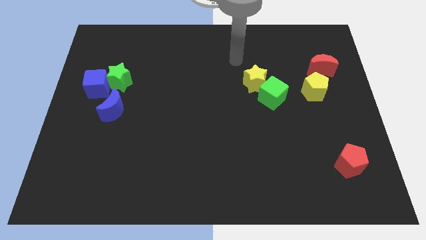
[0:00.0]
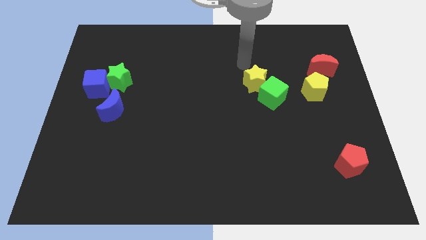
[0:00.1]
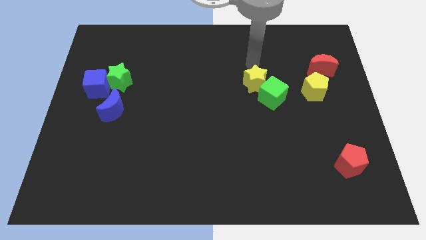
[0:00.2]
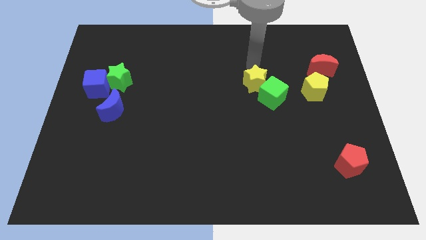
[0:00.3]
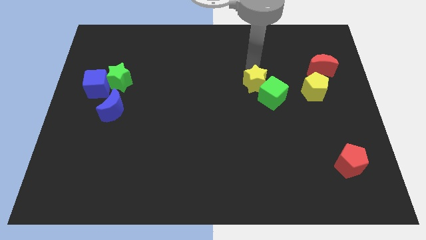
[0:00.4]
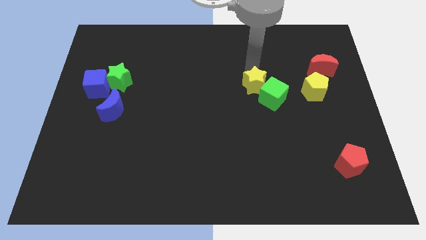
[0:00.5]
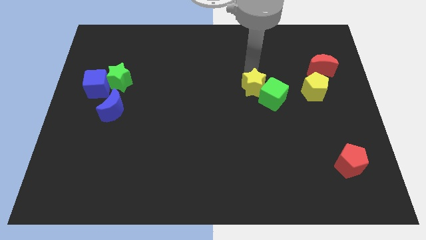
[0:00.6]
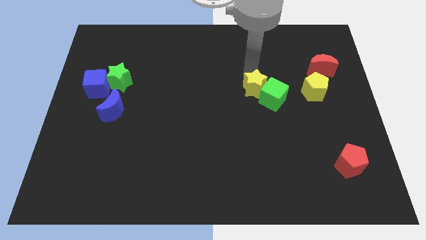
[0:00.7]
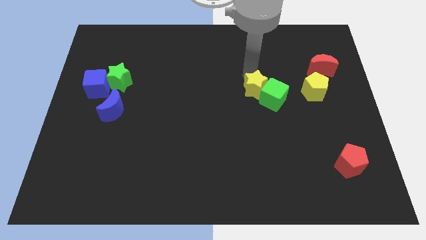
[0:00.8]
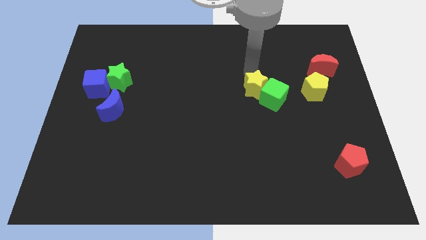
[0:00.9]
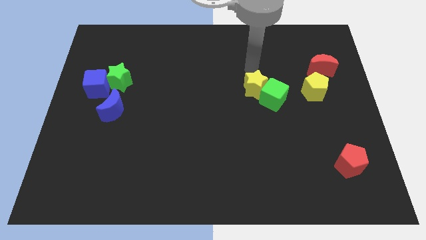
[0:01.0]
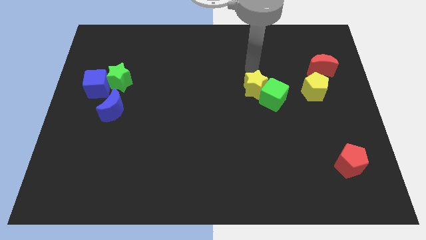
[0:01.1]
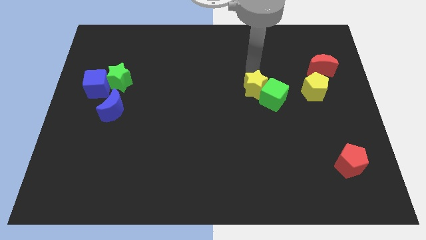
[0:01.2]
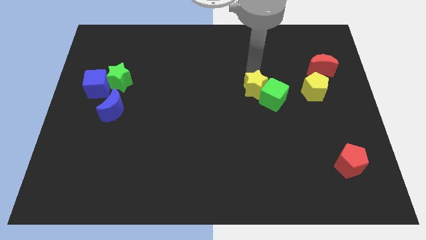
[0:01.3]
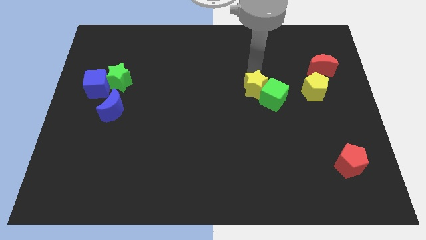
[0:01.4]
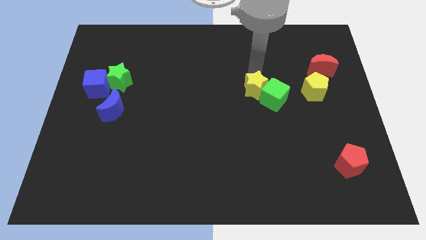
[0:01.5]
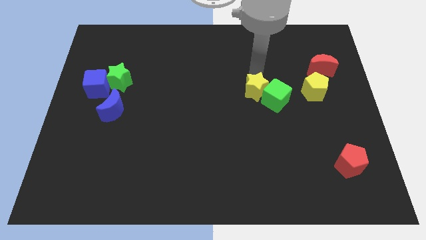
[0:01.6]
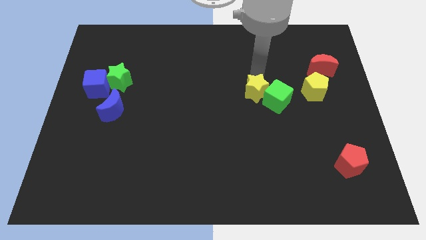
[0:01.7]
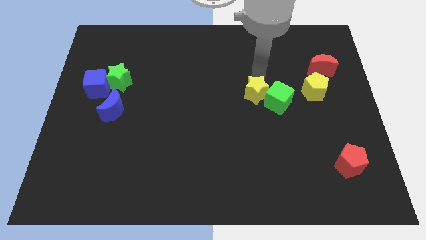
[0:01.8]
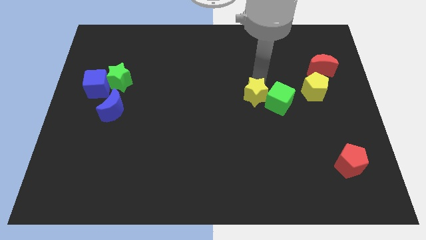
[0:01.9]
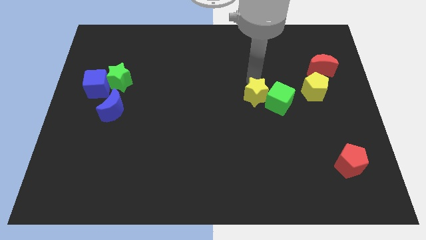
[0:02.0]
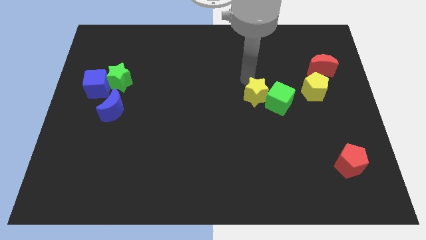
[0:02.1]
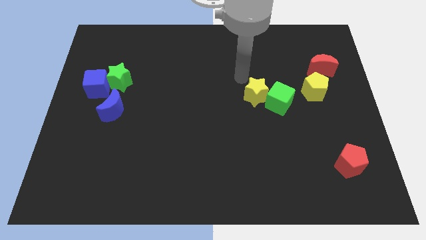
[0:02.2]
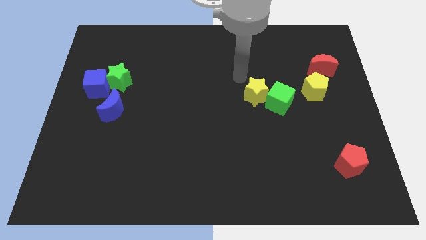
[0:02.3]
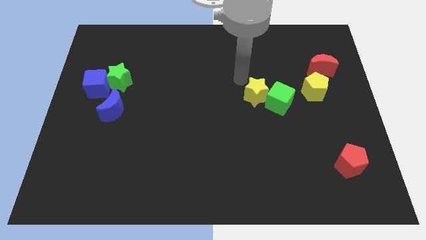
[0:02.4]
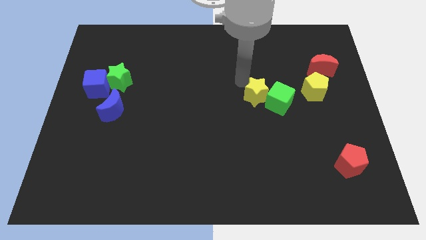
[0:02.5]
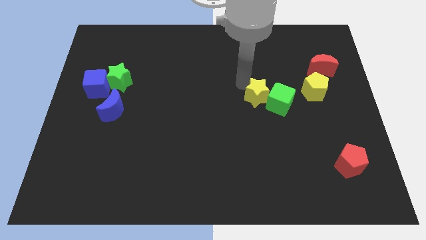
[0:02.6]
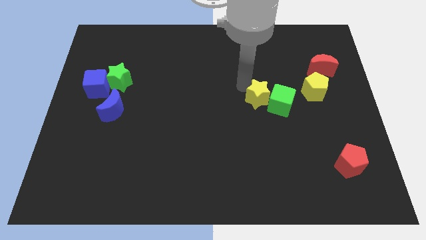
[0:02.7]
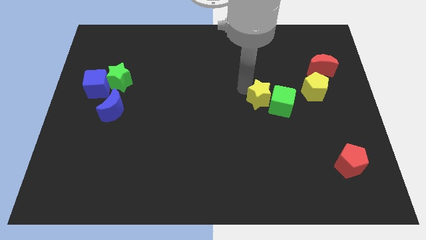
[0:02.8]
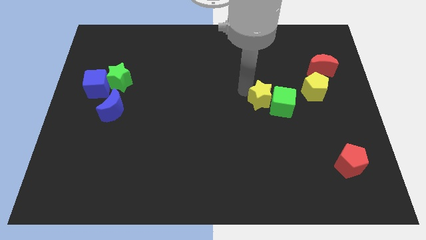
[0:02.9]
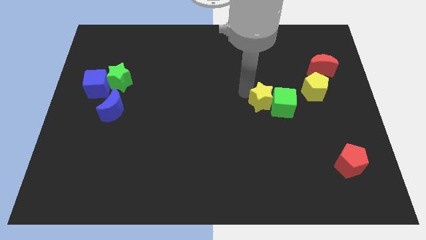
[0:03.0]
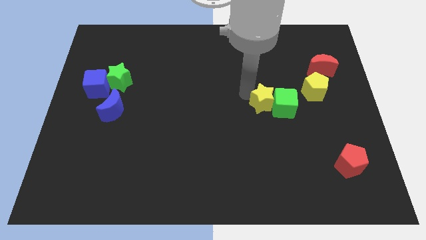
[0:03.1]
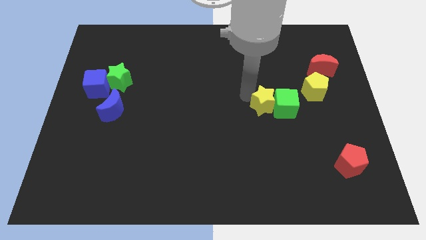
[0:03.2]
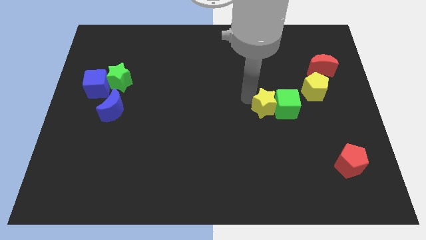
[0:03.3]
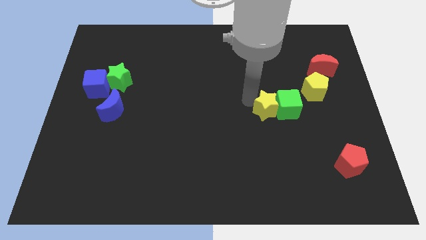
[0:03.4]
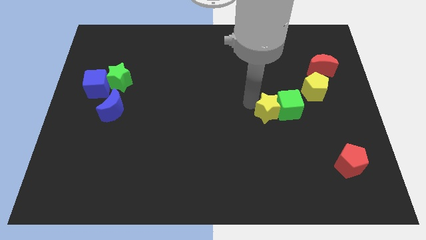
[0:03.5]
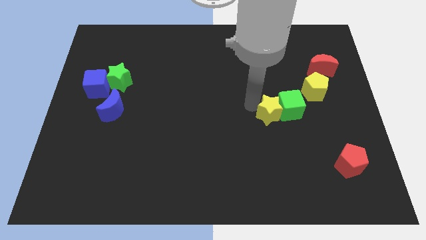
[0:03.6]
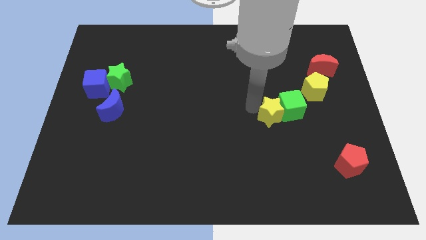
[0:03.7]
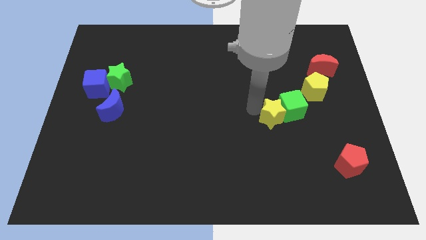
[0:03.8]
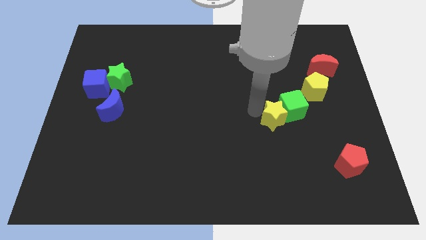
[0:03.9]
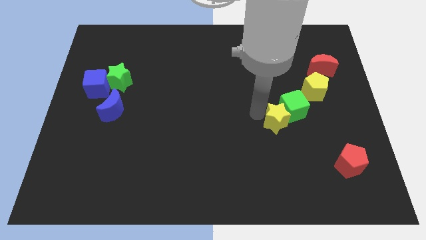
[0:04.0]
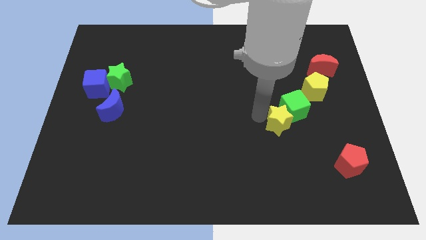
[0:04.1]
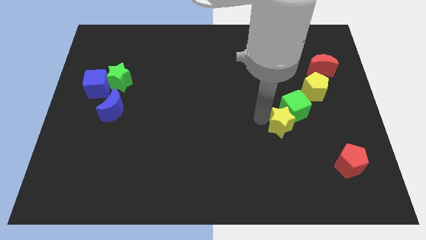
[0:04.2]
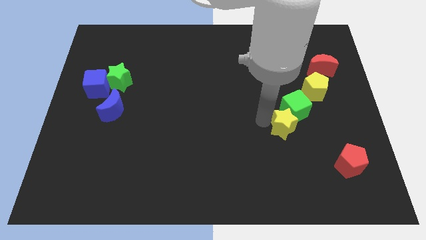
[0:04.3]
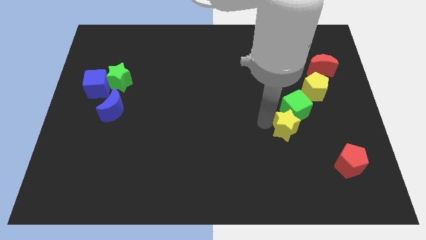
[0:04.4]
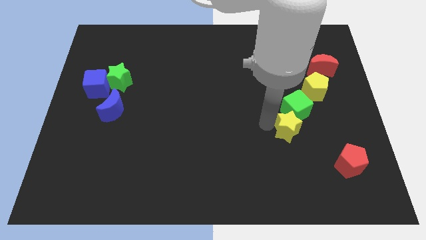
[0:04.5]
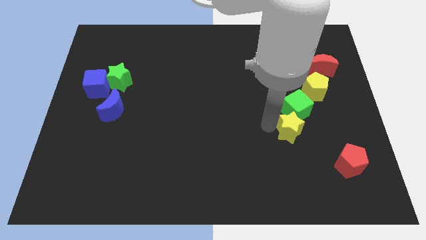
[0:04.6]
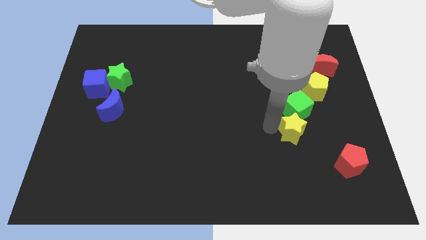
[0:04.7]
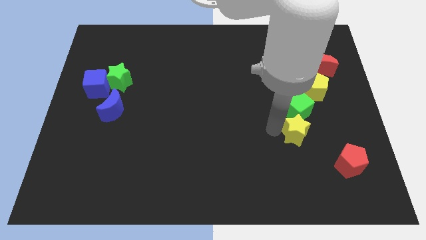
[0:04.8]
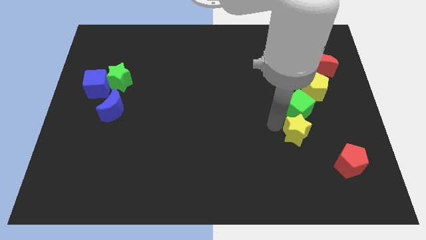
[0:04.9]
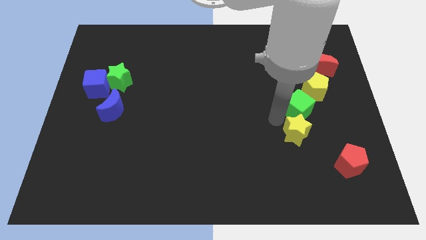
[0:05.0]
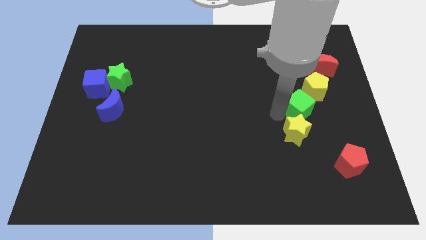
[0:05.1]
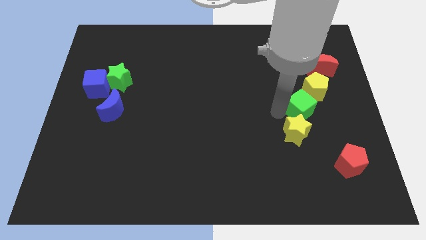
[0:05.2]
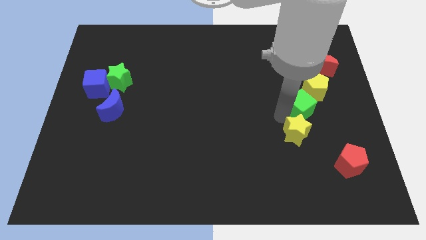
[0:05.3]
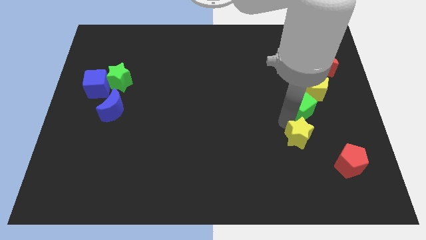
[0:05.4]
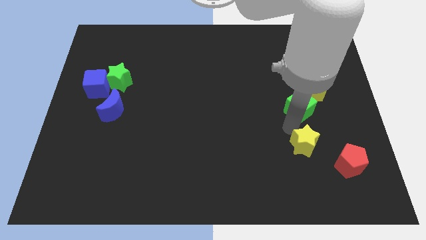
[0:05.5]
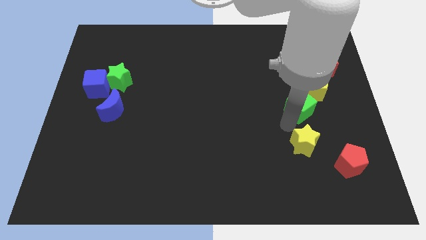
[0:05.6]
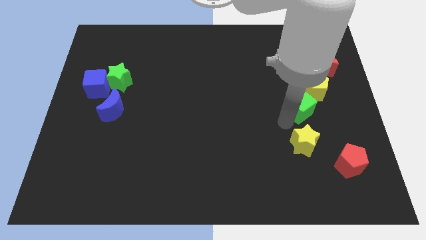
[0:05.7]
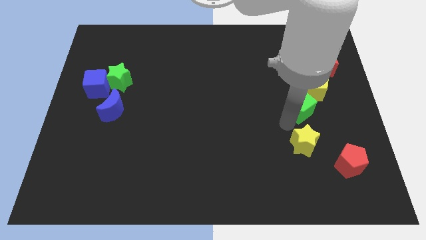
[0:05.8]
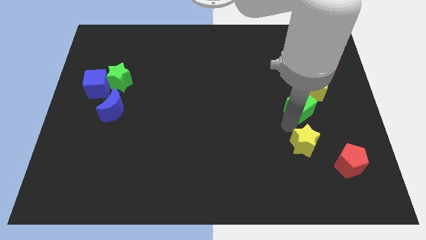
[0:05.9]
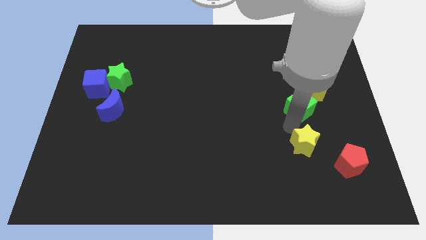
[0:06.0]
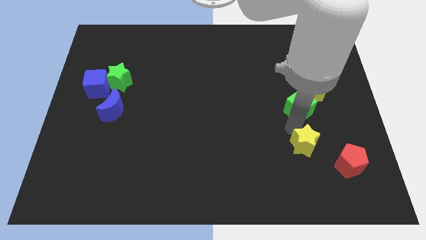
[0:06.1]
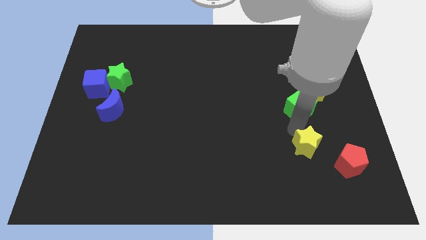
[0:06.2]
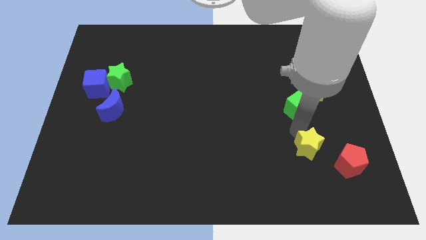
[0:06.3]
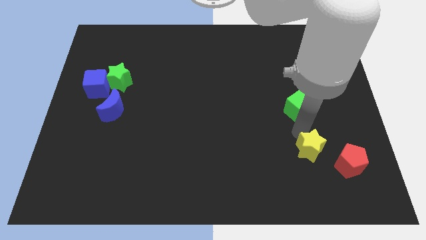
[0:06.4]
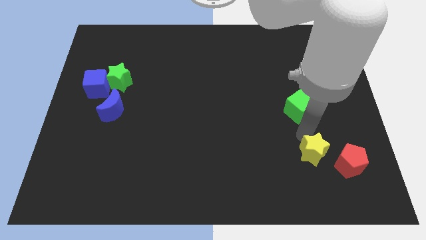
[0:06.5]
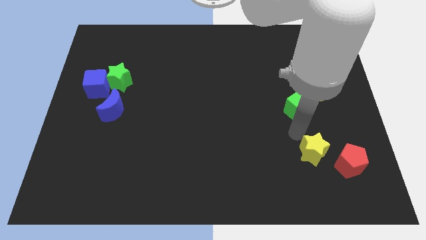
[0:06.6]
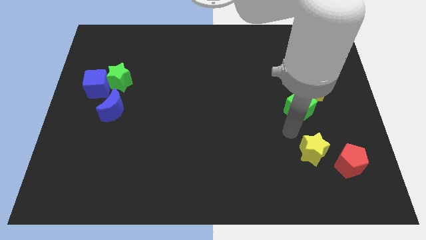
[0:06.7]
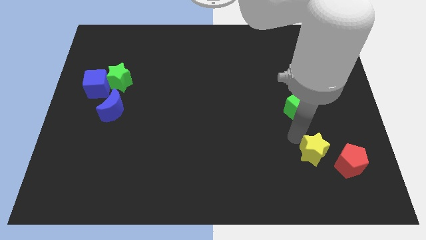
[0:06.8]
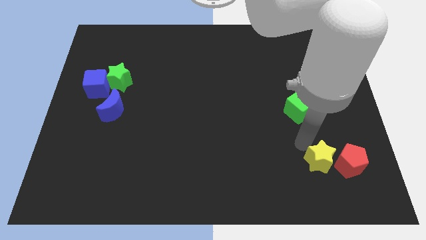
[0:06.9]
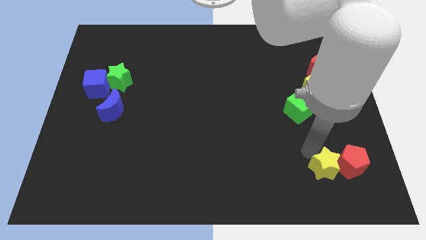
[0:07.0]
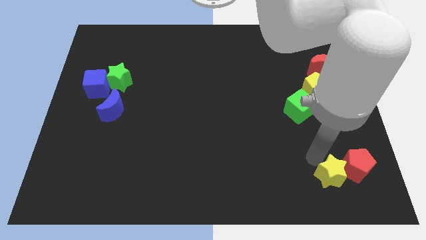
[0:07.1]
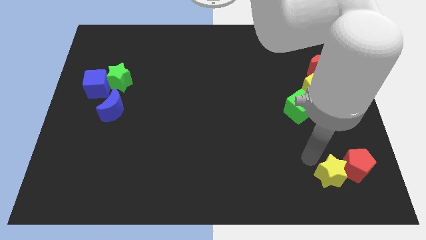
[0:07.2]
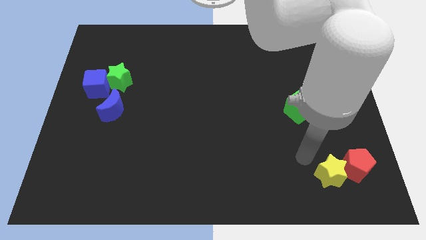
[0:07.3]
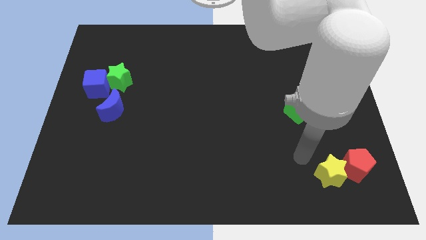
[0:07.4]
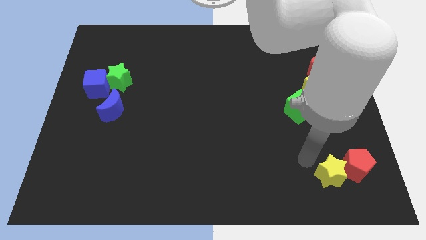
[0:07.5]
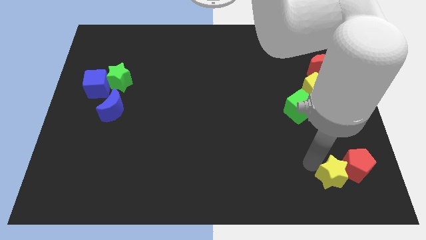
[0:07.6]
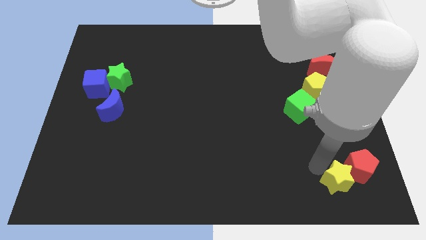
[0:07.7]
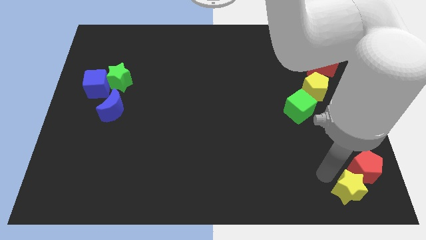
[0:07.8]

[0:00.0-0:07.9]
push the yellow star to the bottom right

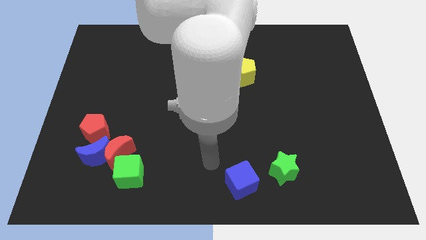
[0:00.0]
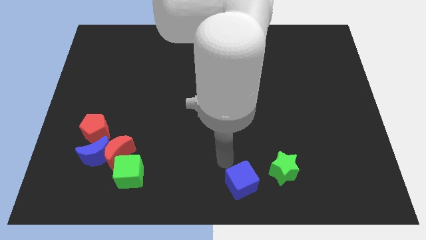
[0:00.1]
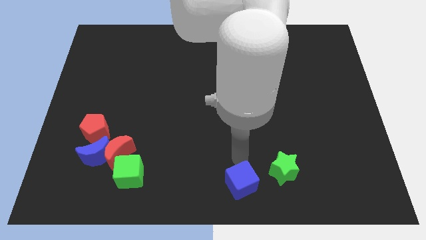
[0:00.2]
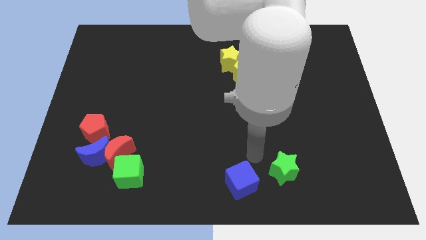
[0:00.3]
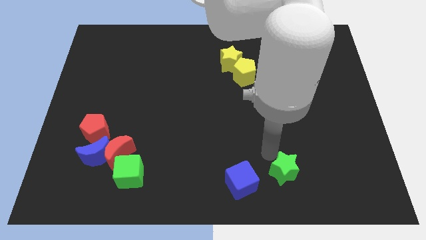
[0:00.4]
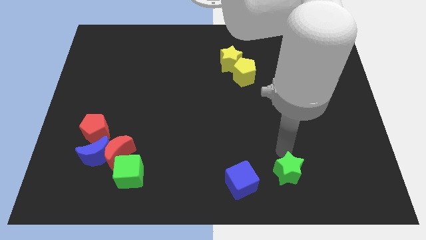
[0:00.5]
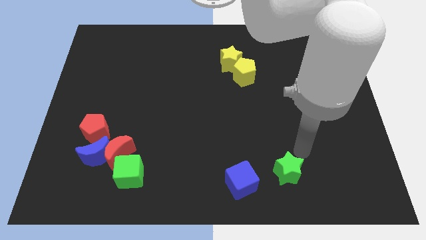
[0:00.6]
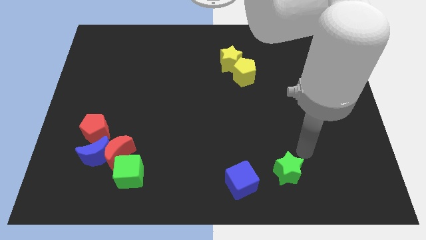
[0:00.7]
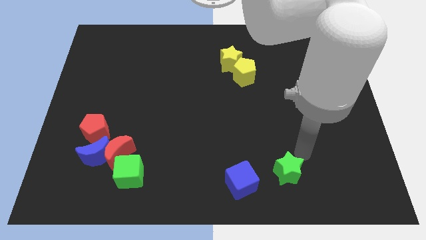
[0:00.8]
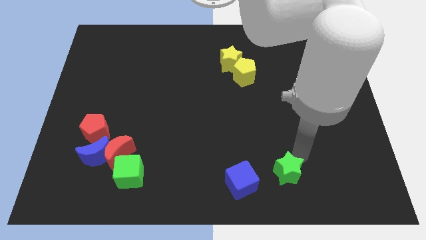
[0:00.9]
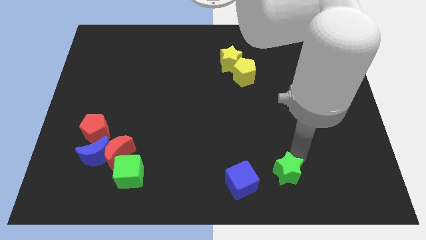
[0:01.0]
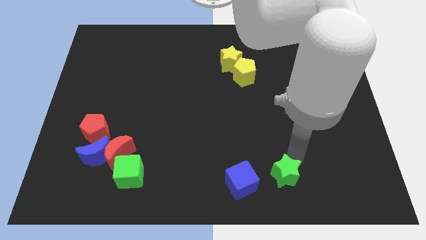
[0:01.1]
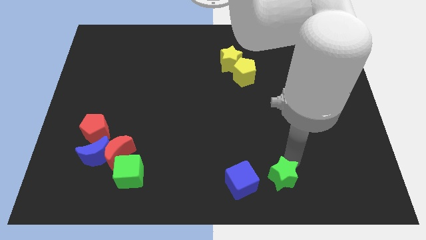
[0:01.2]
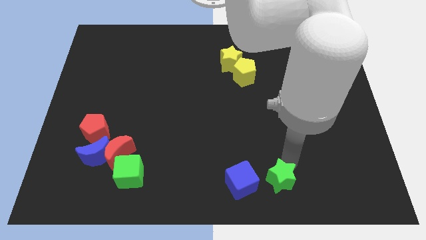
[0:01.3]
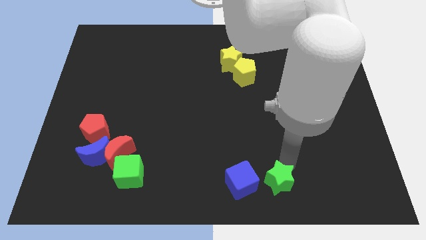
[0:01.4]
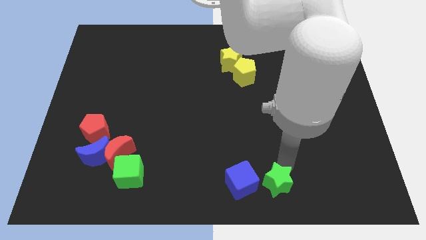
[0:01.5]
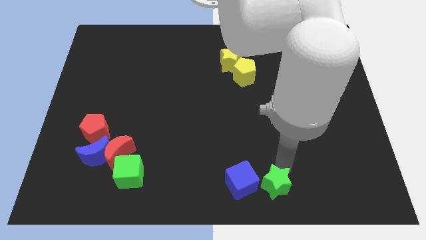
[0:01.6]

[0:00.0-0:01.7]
move the green star to the bottom side
